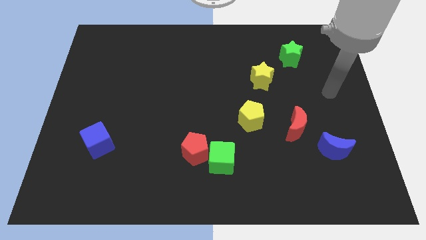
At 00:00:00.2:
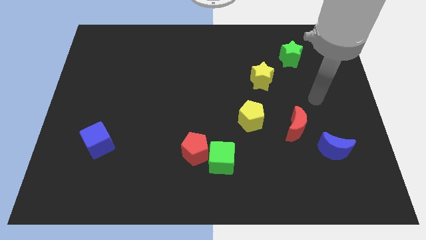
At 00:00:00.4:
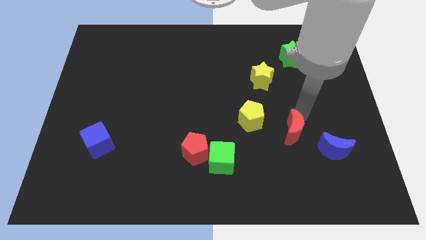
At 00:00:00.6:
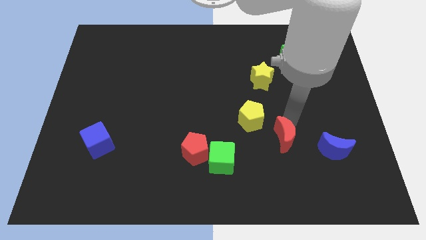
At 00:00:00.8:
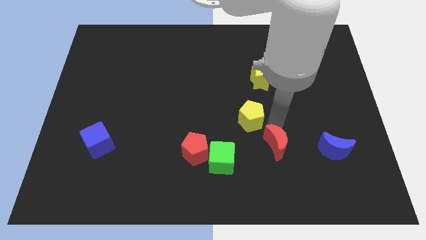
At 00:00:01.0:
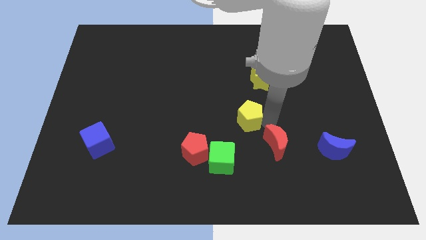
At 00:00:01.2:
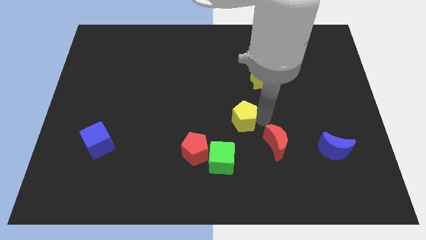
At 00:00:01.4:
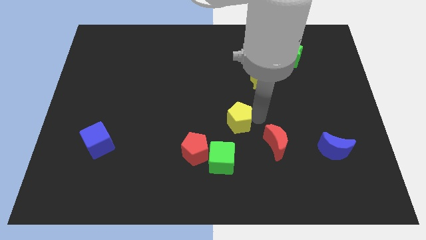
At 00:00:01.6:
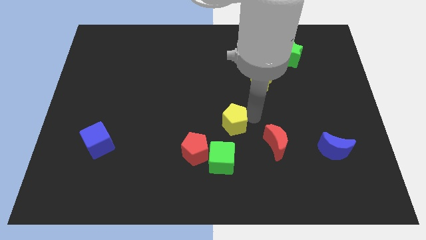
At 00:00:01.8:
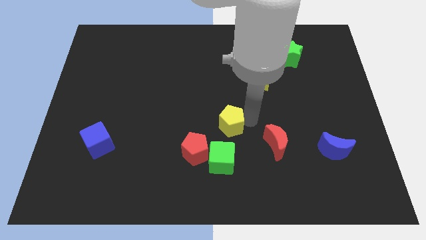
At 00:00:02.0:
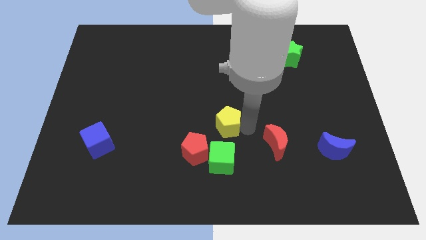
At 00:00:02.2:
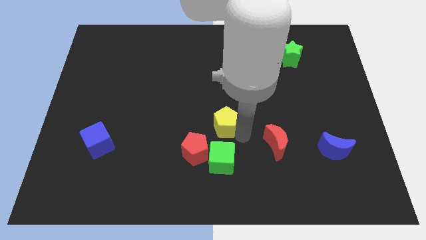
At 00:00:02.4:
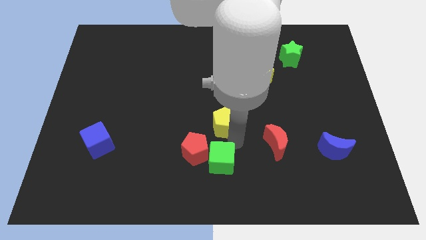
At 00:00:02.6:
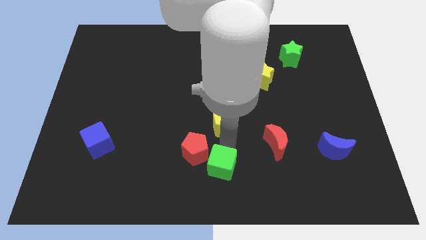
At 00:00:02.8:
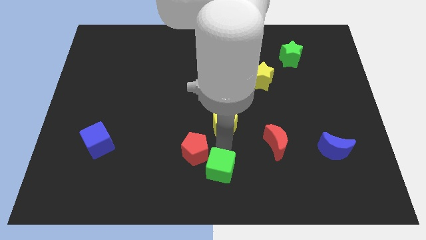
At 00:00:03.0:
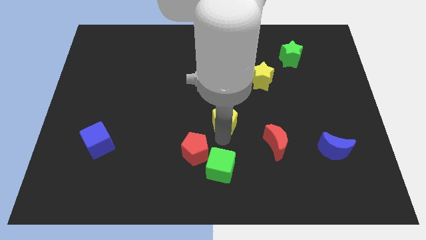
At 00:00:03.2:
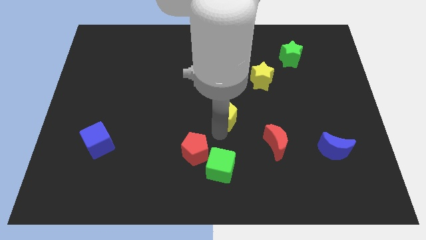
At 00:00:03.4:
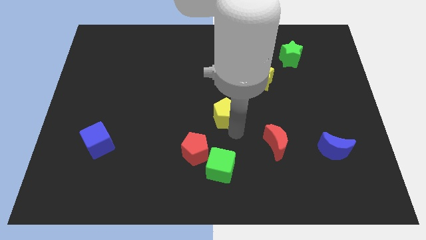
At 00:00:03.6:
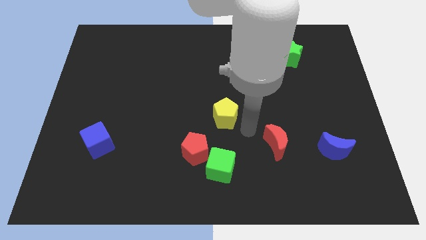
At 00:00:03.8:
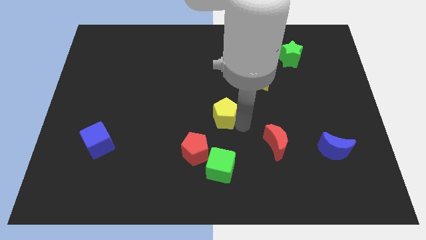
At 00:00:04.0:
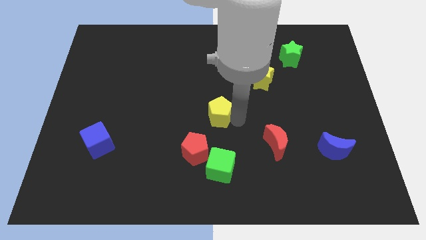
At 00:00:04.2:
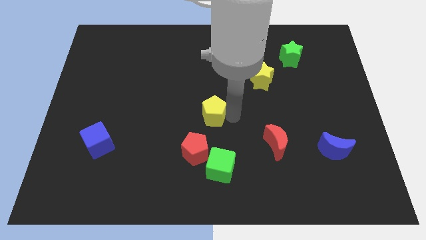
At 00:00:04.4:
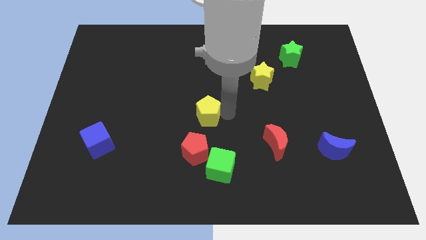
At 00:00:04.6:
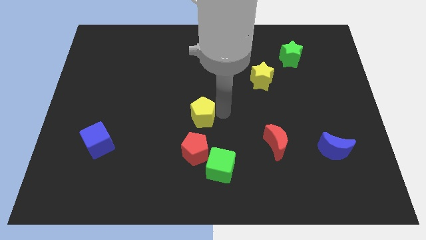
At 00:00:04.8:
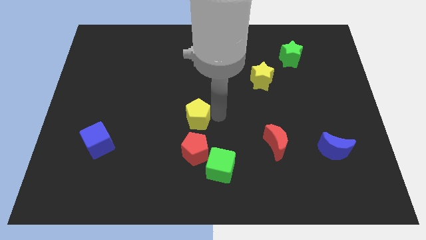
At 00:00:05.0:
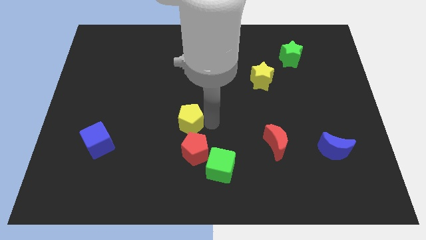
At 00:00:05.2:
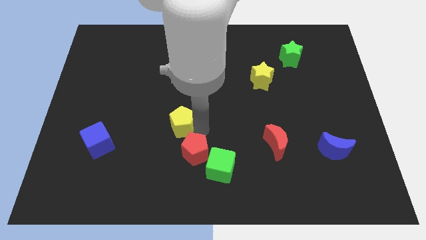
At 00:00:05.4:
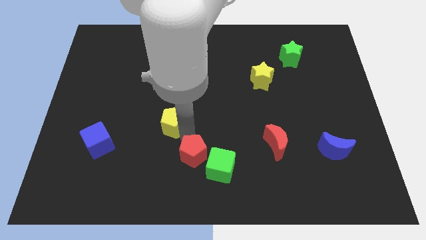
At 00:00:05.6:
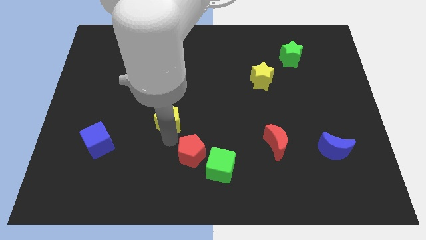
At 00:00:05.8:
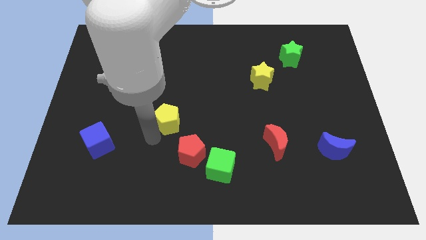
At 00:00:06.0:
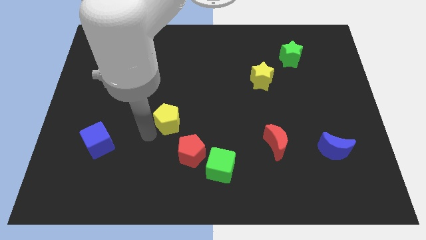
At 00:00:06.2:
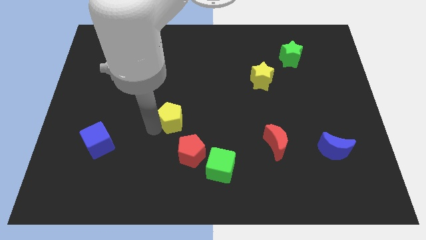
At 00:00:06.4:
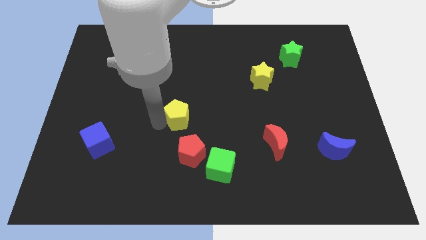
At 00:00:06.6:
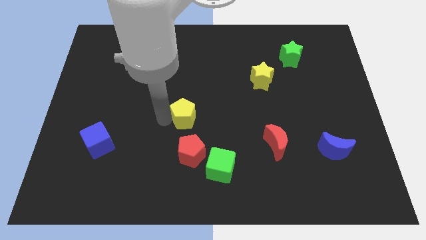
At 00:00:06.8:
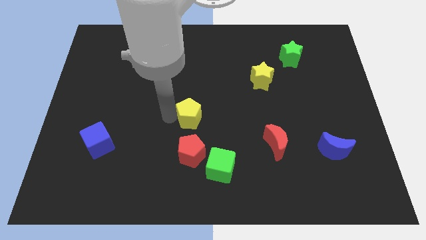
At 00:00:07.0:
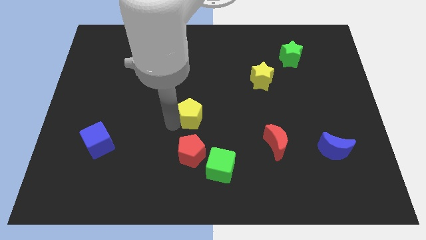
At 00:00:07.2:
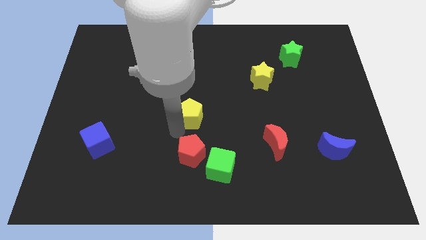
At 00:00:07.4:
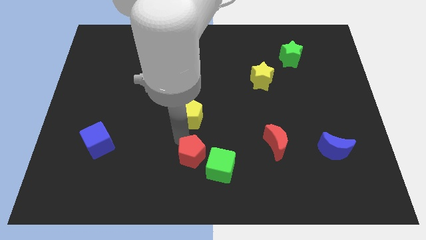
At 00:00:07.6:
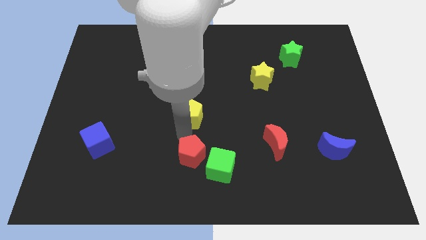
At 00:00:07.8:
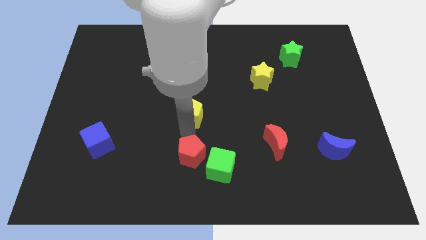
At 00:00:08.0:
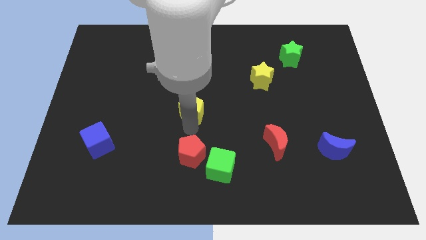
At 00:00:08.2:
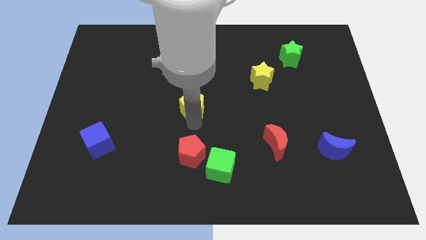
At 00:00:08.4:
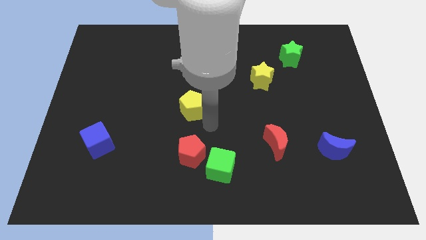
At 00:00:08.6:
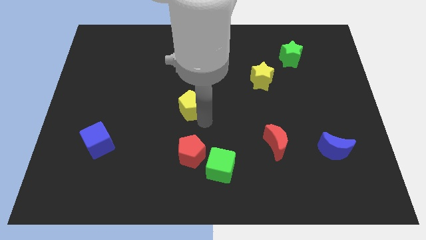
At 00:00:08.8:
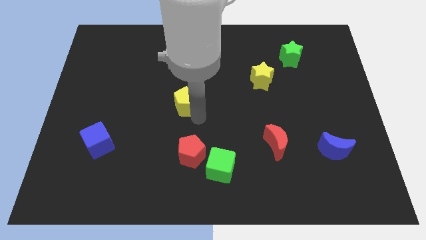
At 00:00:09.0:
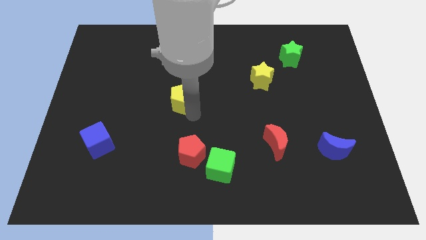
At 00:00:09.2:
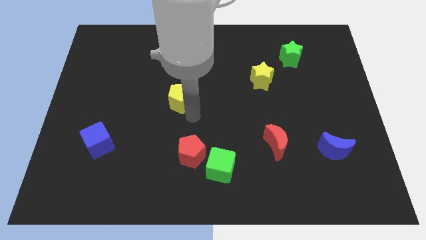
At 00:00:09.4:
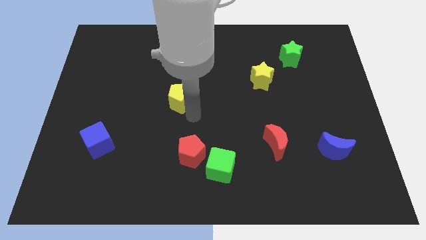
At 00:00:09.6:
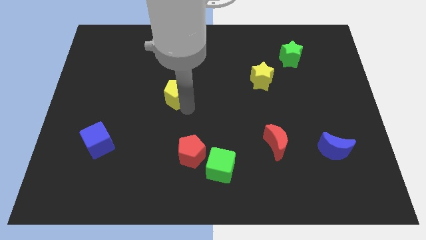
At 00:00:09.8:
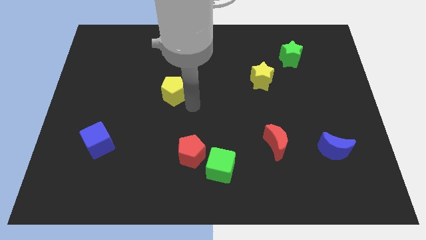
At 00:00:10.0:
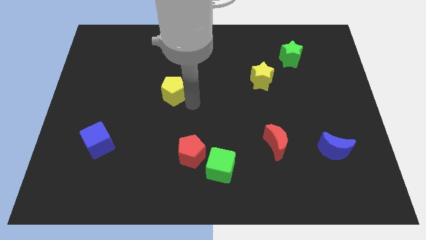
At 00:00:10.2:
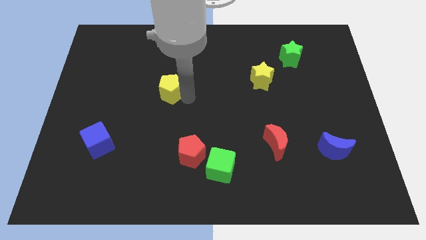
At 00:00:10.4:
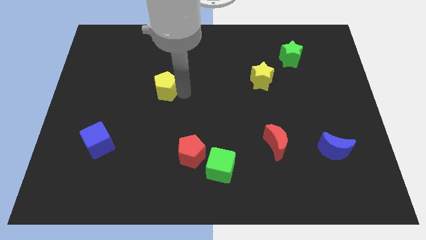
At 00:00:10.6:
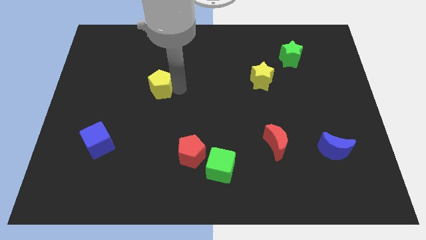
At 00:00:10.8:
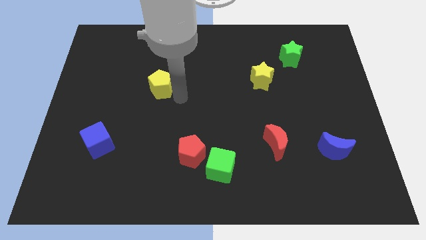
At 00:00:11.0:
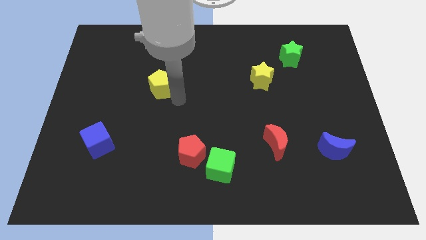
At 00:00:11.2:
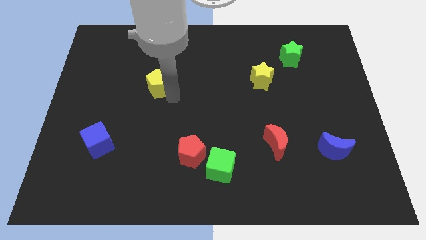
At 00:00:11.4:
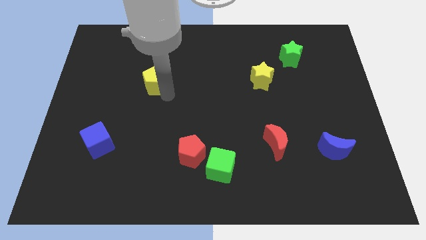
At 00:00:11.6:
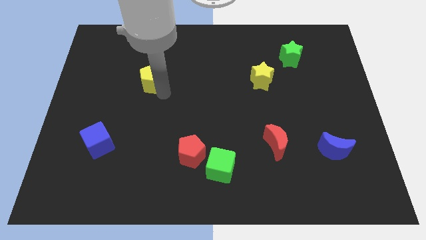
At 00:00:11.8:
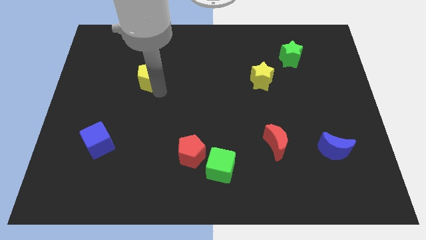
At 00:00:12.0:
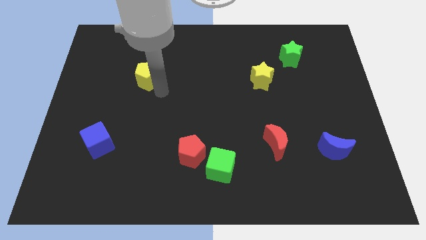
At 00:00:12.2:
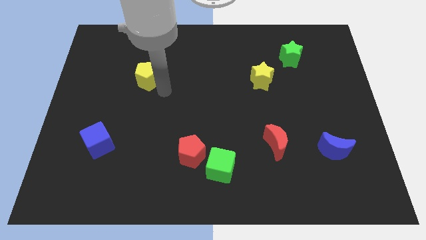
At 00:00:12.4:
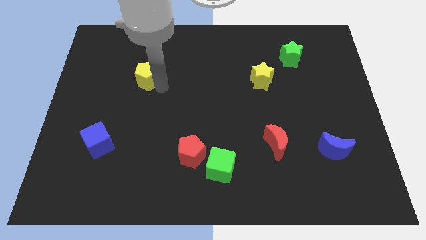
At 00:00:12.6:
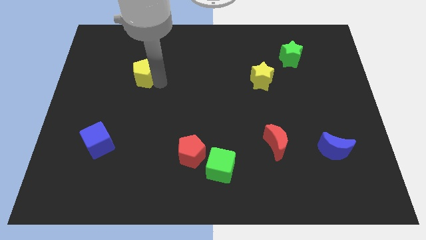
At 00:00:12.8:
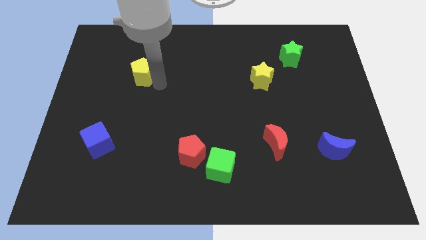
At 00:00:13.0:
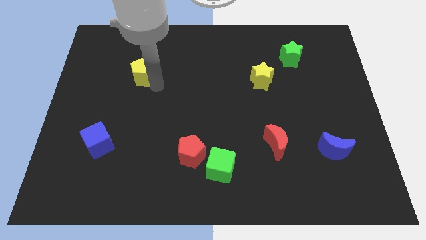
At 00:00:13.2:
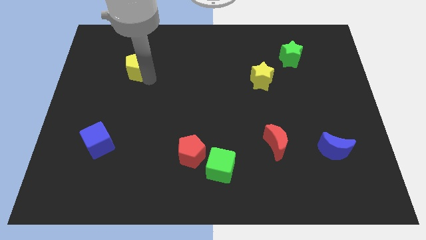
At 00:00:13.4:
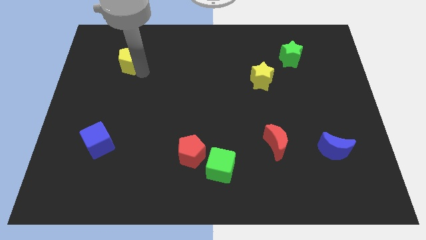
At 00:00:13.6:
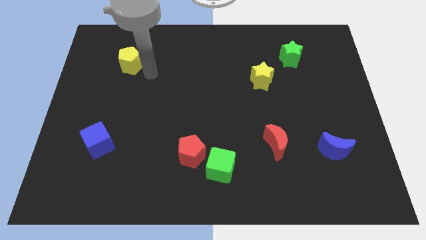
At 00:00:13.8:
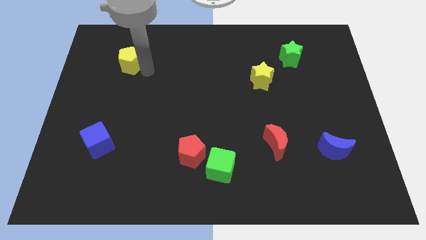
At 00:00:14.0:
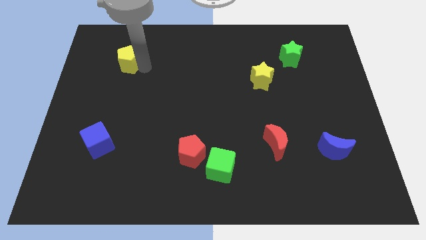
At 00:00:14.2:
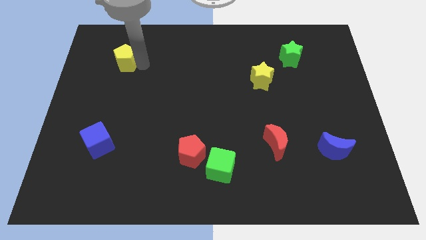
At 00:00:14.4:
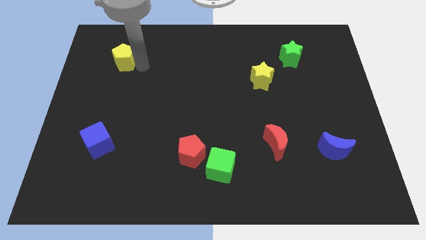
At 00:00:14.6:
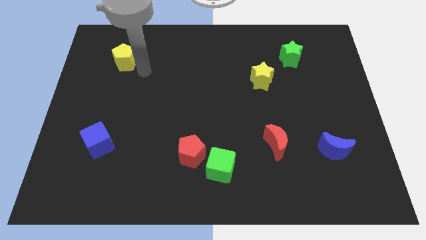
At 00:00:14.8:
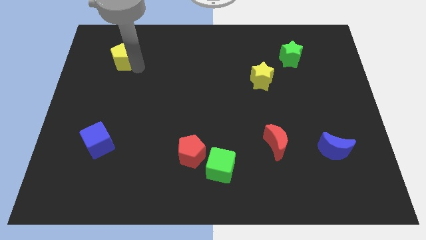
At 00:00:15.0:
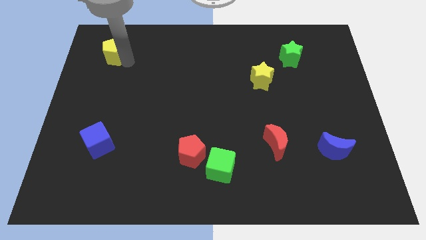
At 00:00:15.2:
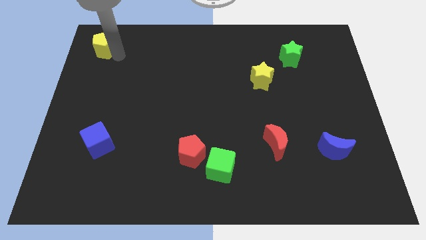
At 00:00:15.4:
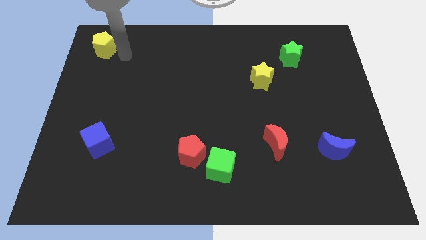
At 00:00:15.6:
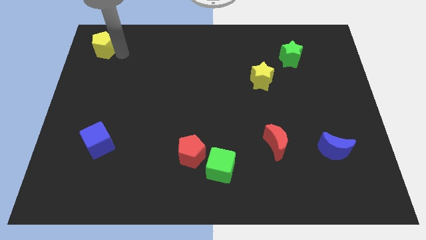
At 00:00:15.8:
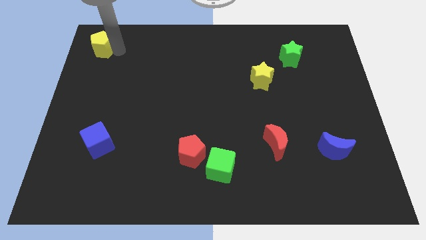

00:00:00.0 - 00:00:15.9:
push the yellow pentagon to the top left
